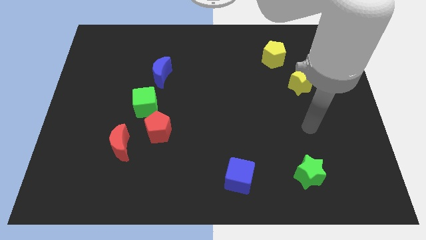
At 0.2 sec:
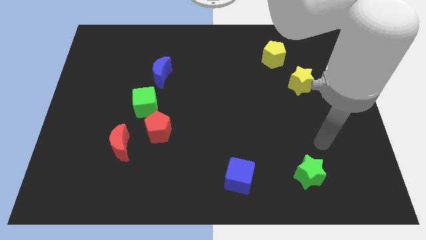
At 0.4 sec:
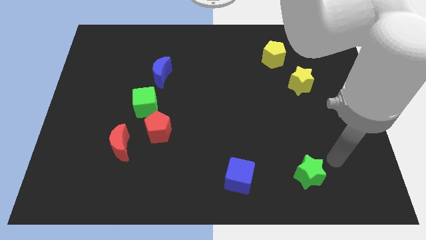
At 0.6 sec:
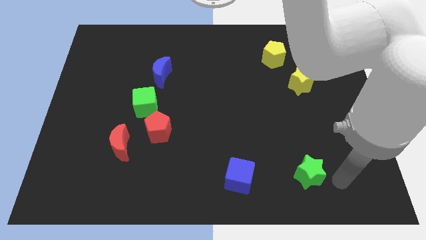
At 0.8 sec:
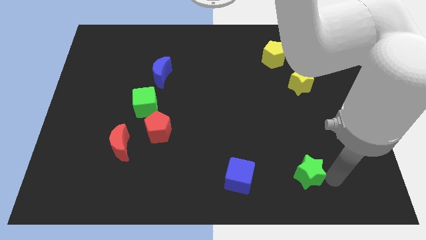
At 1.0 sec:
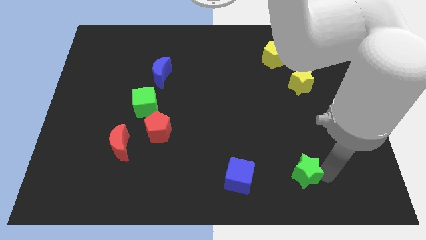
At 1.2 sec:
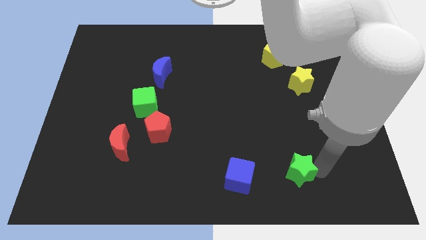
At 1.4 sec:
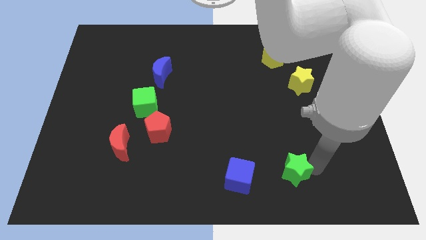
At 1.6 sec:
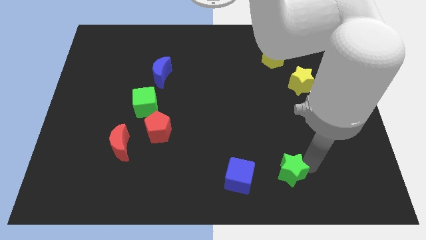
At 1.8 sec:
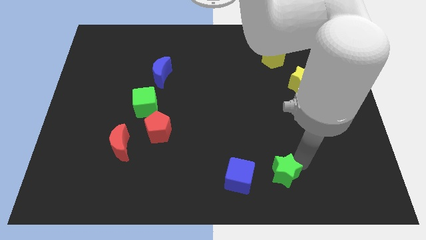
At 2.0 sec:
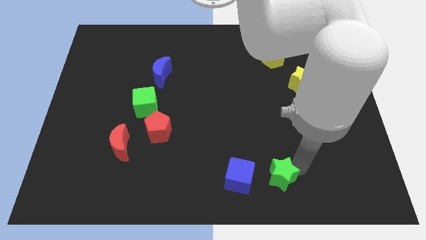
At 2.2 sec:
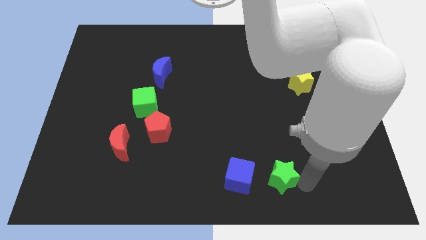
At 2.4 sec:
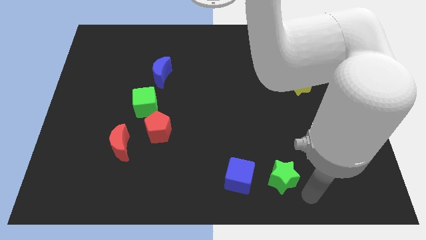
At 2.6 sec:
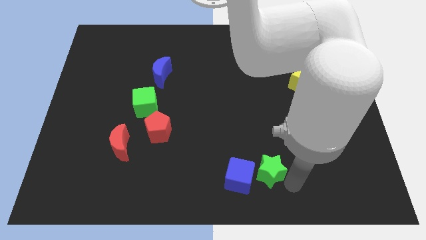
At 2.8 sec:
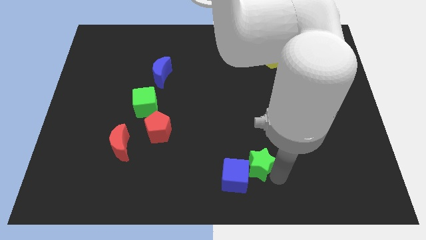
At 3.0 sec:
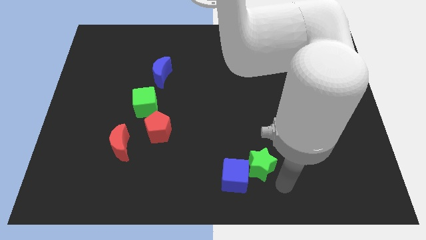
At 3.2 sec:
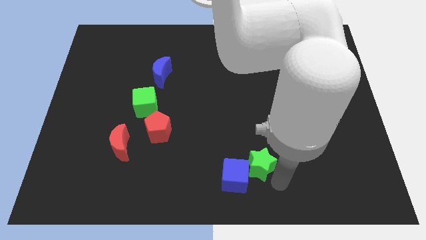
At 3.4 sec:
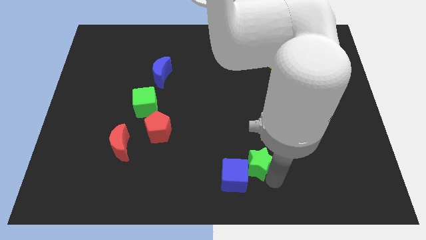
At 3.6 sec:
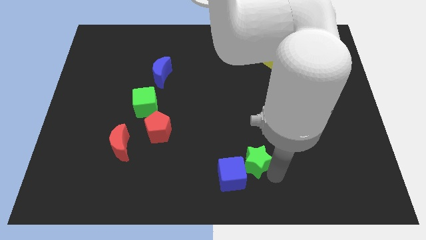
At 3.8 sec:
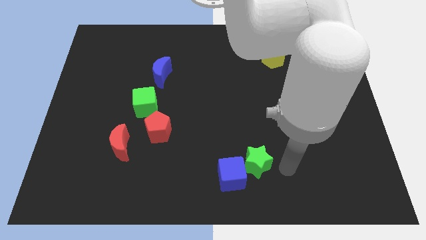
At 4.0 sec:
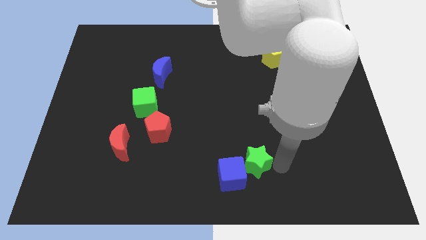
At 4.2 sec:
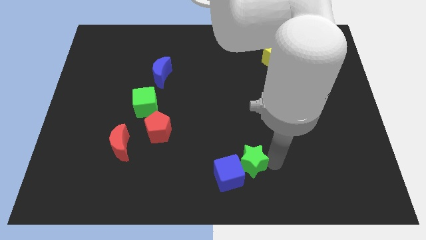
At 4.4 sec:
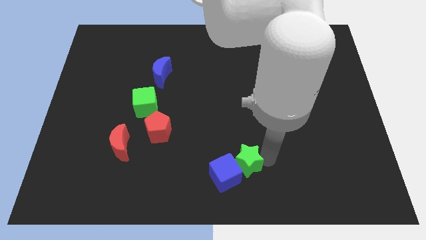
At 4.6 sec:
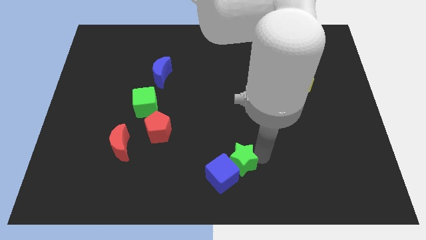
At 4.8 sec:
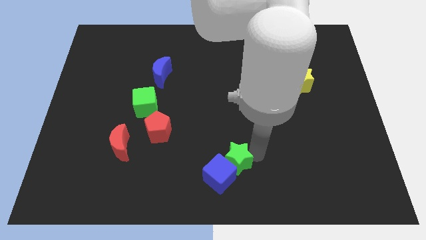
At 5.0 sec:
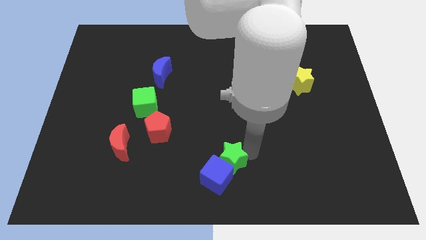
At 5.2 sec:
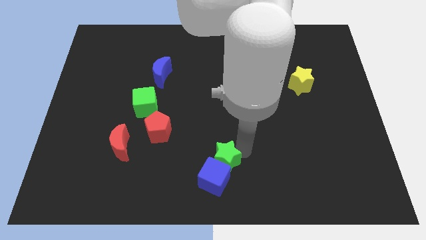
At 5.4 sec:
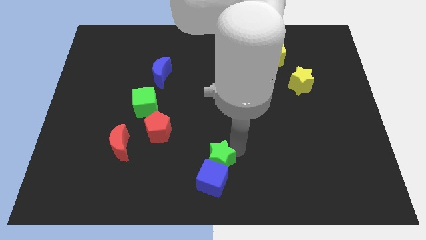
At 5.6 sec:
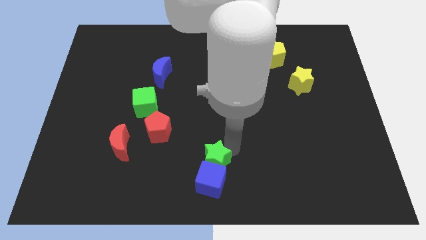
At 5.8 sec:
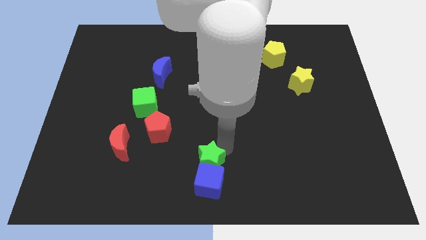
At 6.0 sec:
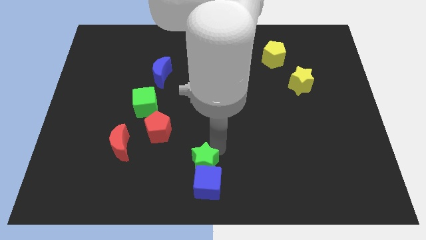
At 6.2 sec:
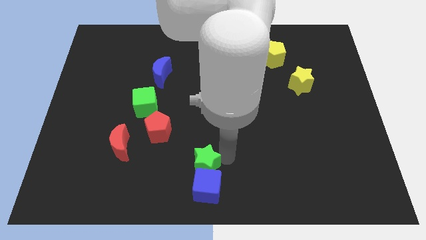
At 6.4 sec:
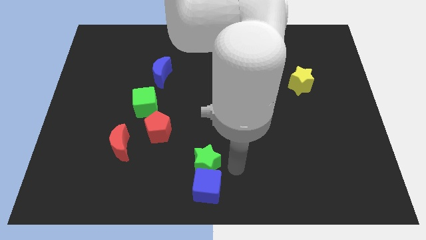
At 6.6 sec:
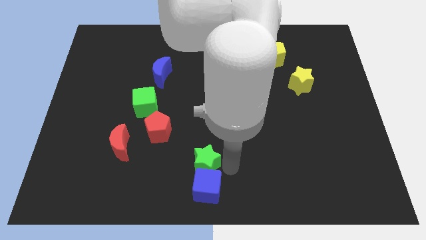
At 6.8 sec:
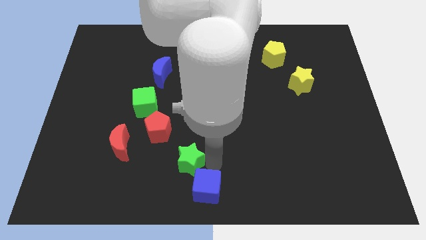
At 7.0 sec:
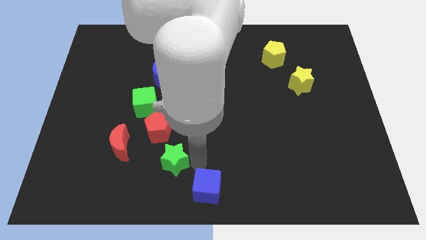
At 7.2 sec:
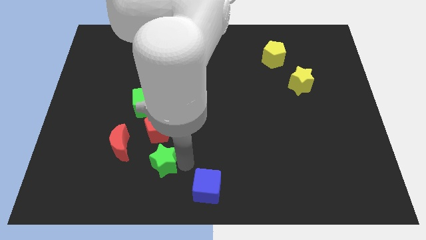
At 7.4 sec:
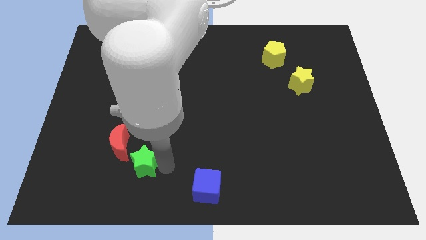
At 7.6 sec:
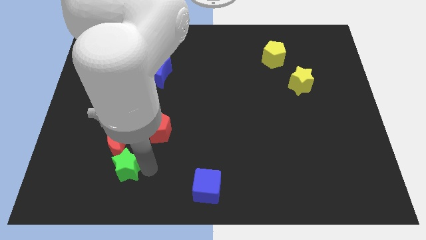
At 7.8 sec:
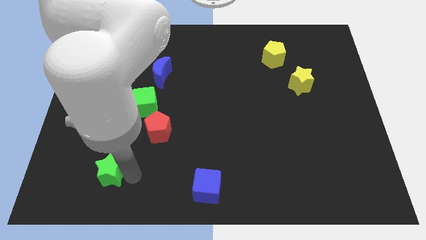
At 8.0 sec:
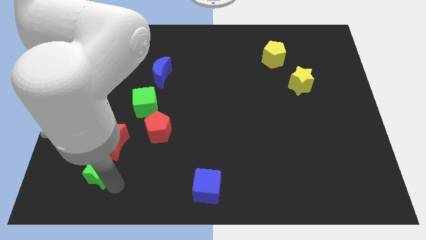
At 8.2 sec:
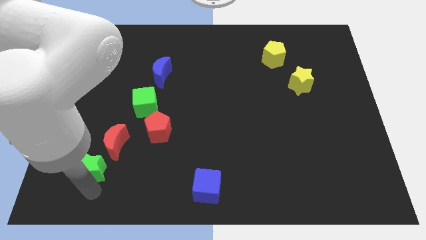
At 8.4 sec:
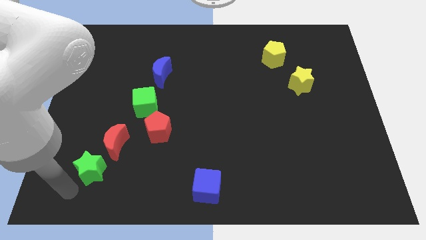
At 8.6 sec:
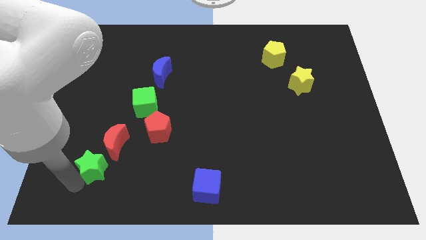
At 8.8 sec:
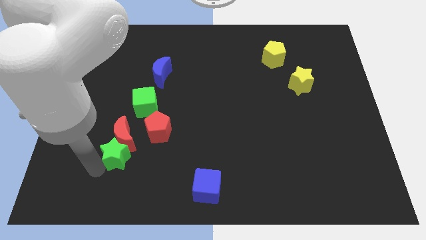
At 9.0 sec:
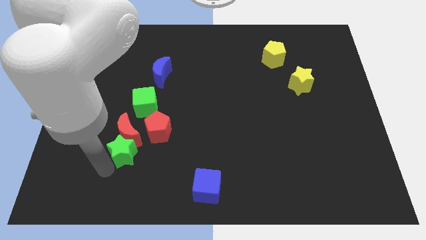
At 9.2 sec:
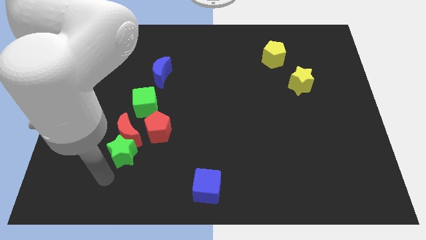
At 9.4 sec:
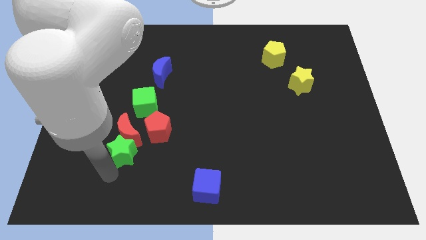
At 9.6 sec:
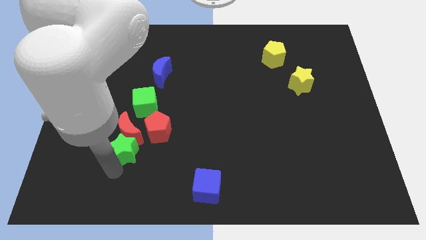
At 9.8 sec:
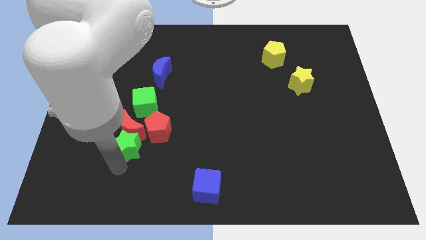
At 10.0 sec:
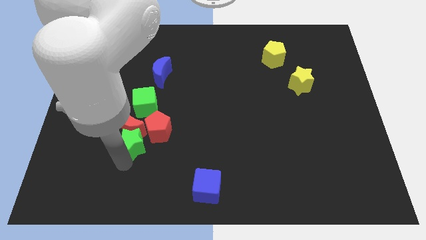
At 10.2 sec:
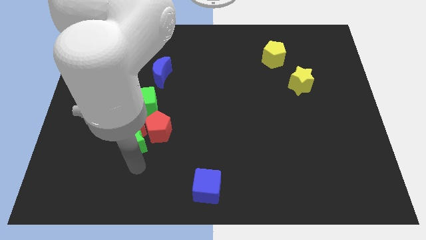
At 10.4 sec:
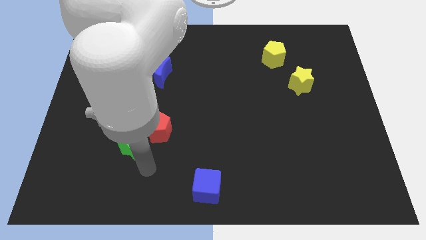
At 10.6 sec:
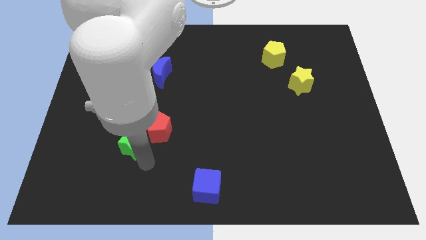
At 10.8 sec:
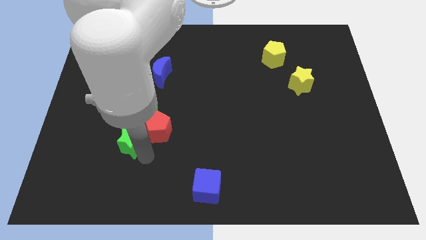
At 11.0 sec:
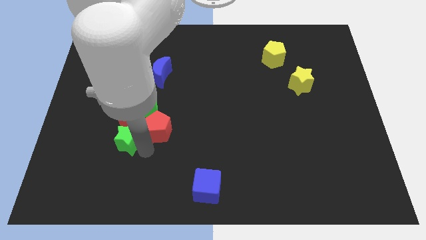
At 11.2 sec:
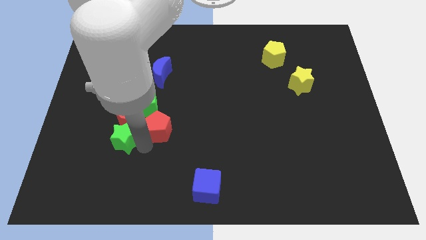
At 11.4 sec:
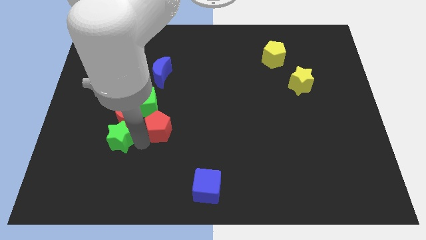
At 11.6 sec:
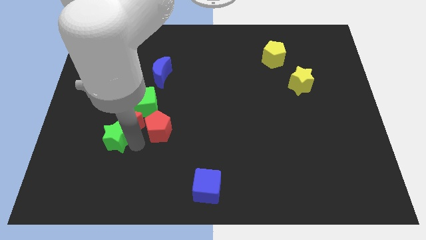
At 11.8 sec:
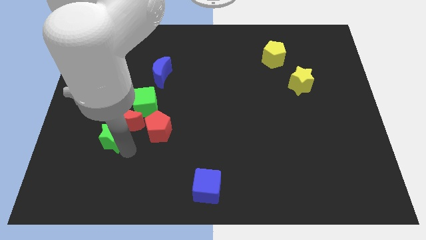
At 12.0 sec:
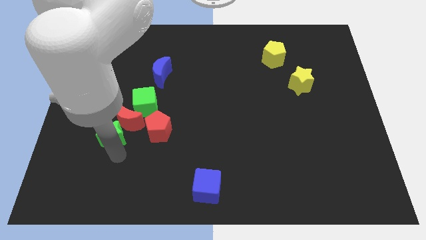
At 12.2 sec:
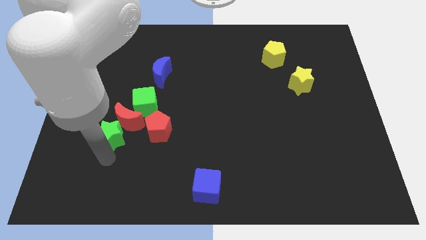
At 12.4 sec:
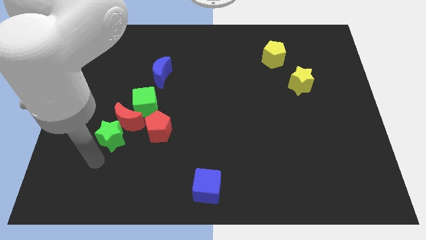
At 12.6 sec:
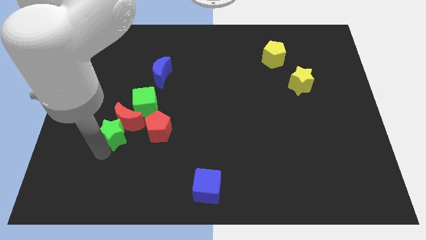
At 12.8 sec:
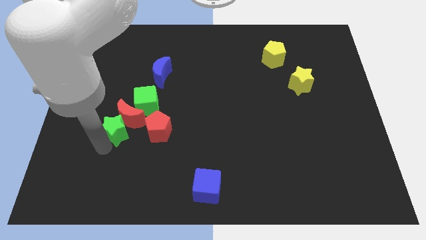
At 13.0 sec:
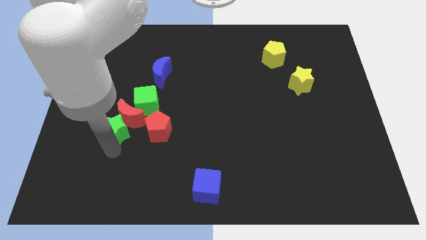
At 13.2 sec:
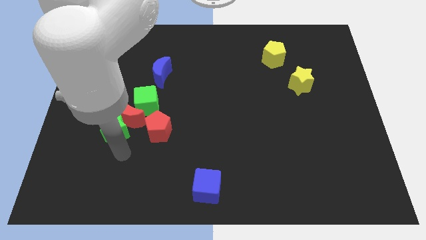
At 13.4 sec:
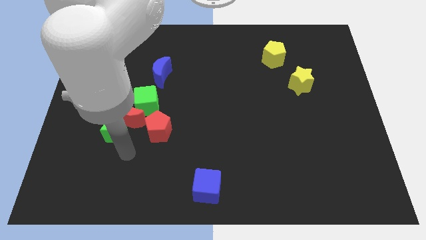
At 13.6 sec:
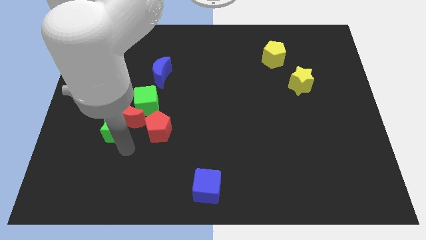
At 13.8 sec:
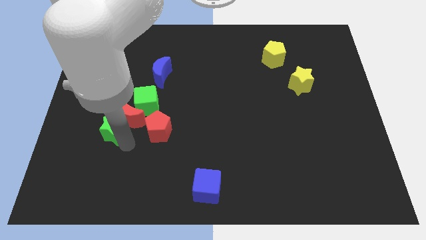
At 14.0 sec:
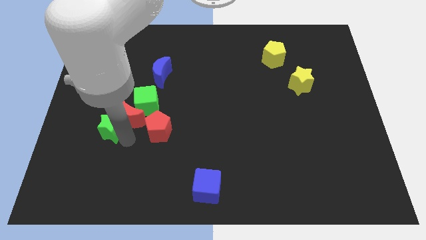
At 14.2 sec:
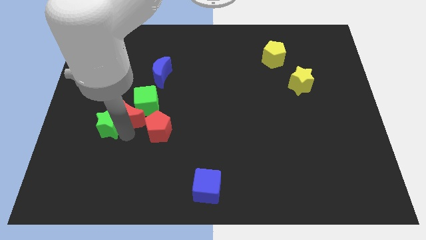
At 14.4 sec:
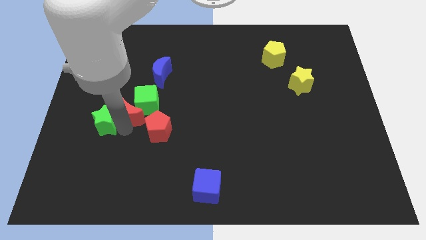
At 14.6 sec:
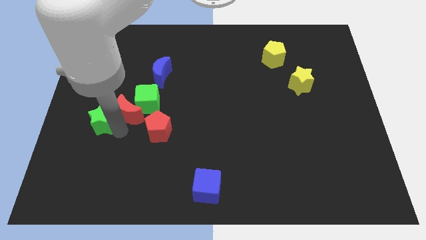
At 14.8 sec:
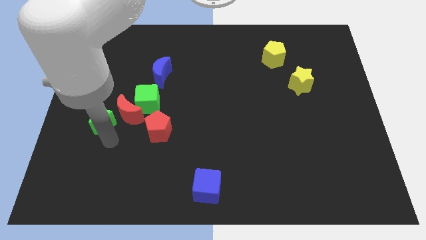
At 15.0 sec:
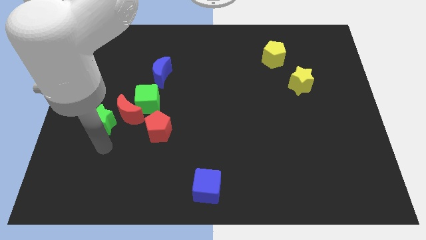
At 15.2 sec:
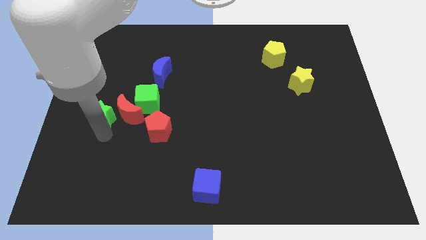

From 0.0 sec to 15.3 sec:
push the green star to the left side of the green cube
